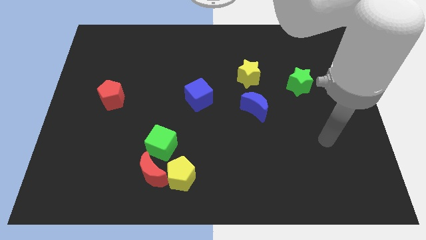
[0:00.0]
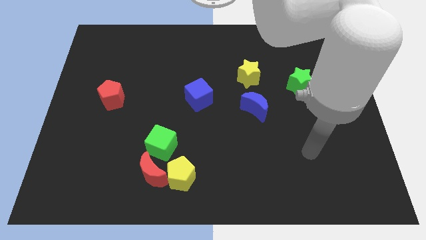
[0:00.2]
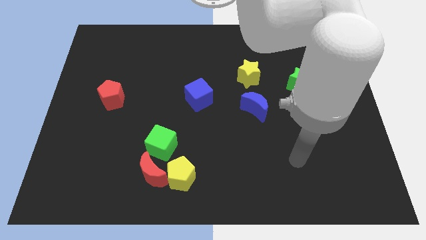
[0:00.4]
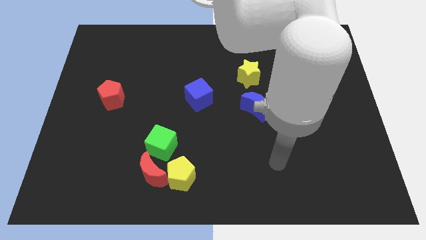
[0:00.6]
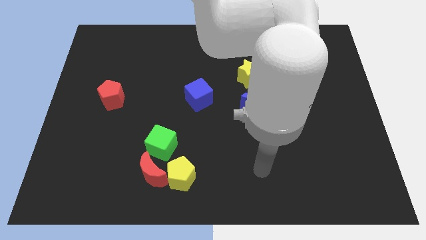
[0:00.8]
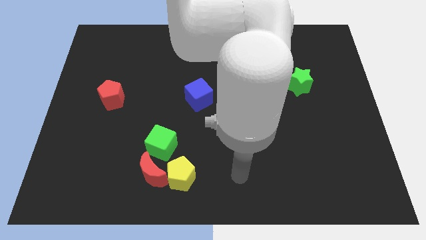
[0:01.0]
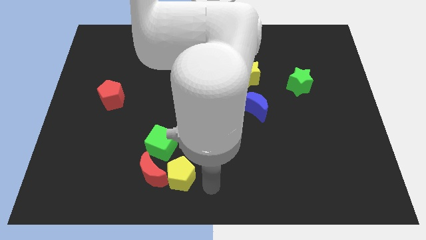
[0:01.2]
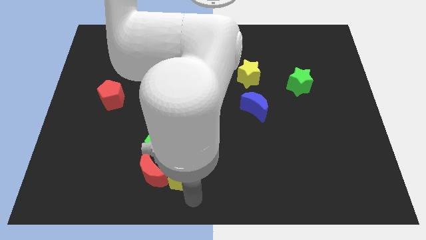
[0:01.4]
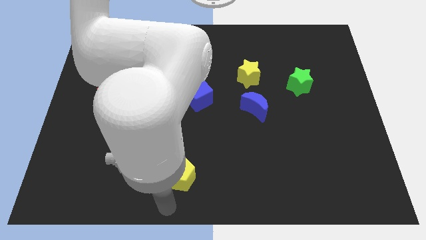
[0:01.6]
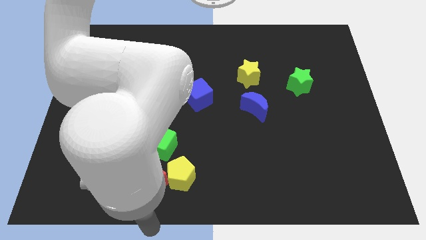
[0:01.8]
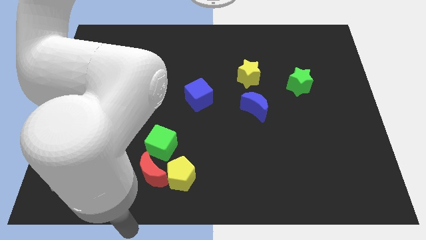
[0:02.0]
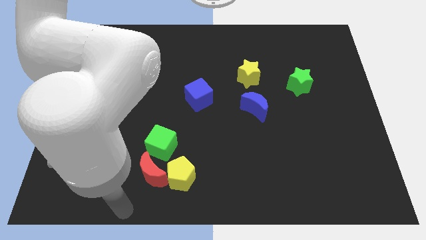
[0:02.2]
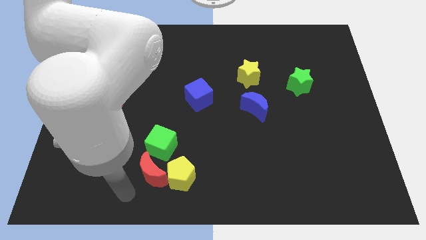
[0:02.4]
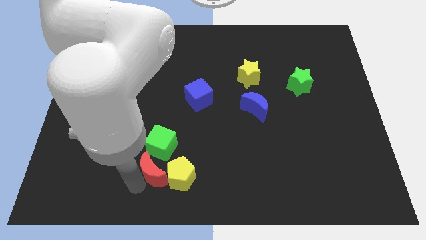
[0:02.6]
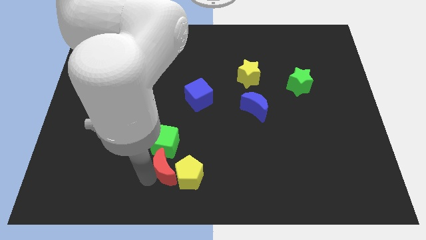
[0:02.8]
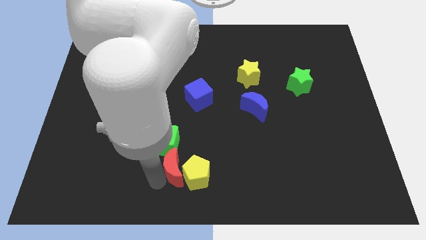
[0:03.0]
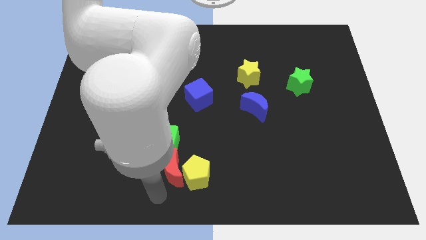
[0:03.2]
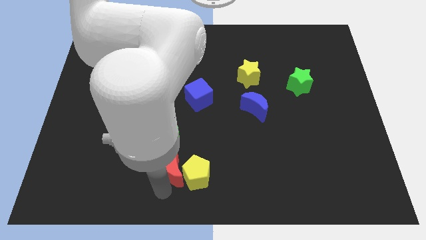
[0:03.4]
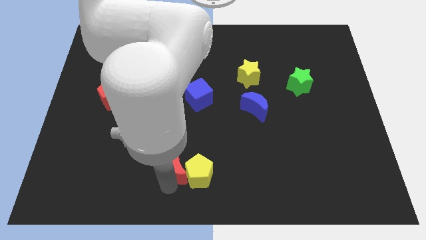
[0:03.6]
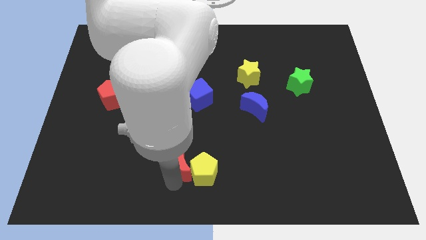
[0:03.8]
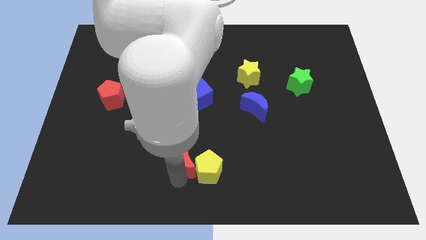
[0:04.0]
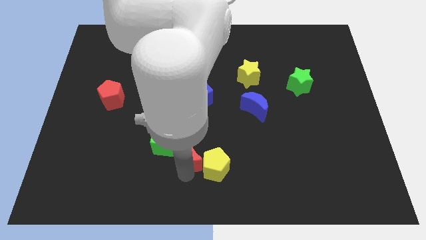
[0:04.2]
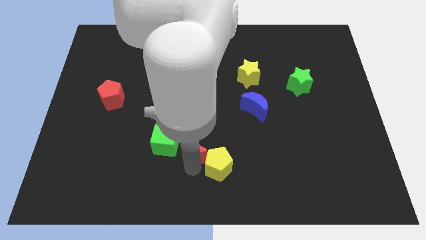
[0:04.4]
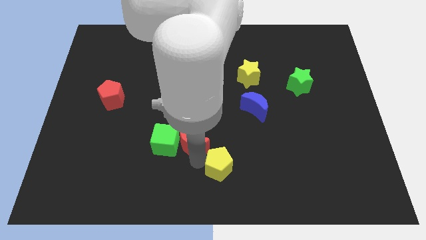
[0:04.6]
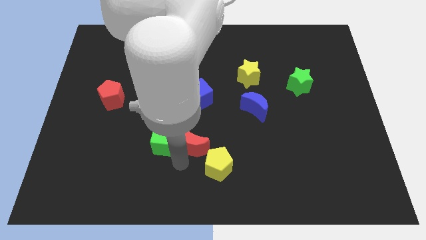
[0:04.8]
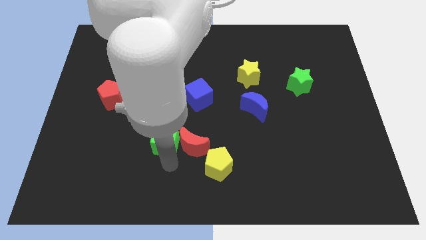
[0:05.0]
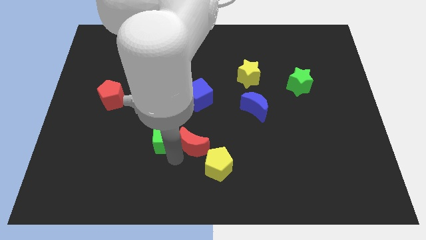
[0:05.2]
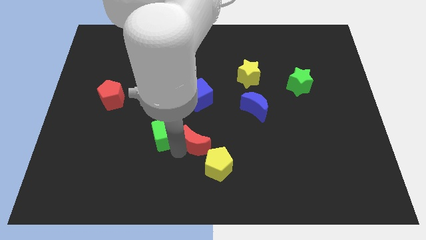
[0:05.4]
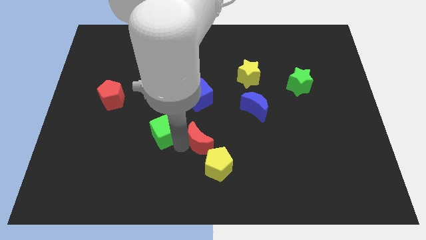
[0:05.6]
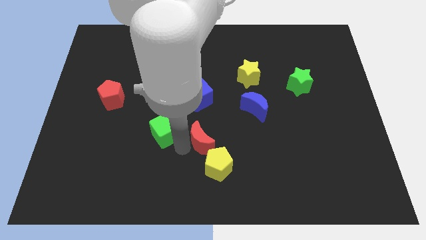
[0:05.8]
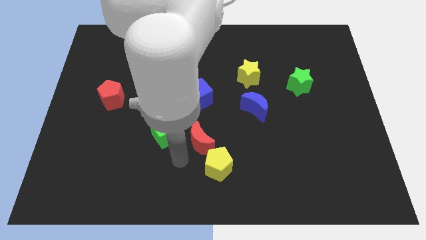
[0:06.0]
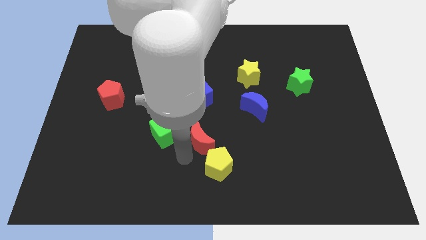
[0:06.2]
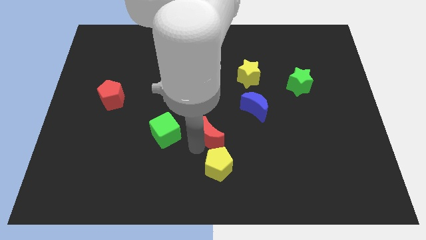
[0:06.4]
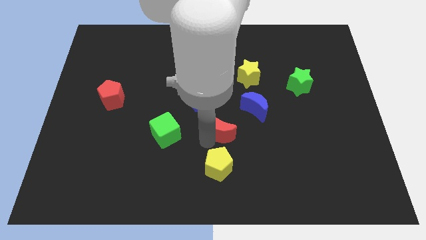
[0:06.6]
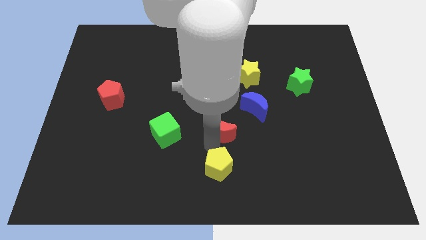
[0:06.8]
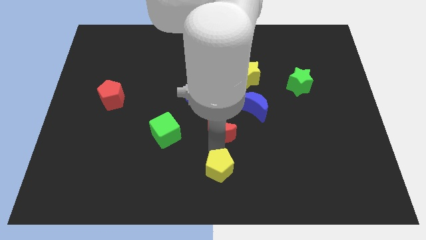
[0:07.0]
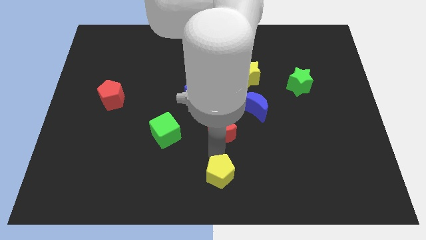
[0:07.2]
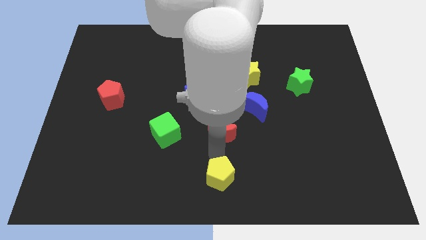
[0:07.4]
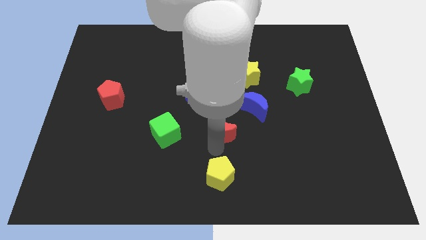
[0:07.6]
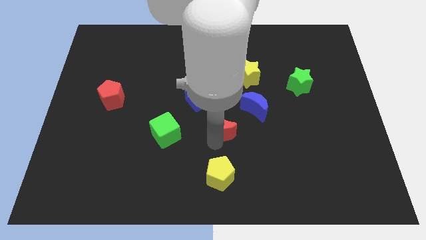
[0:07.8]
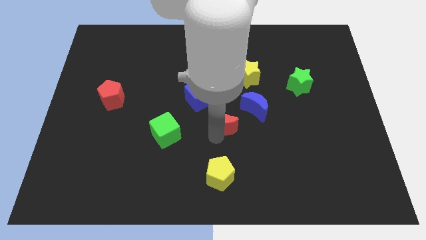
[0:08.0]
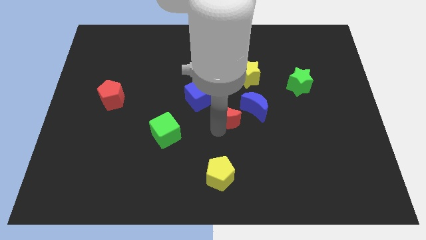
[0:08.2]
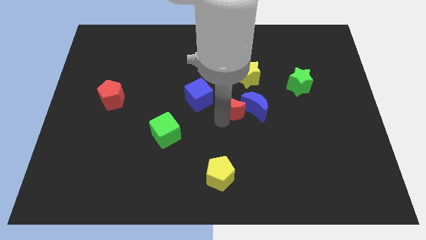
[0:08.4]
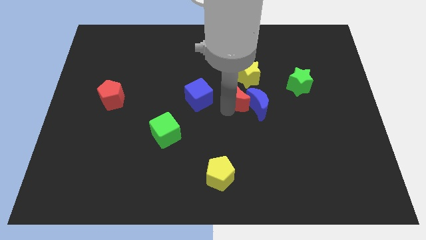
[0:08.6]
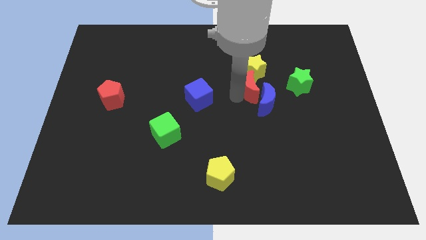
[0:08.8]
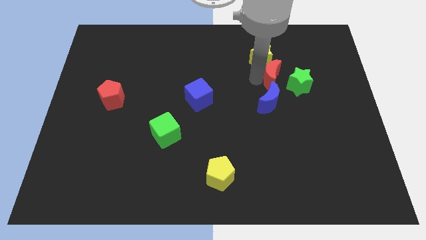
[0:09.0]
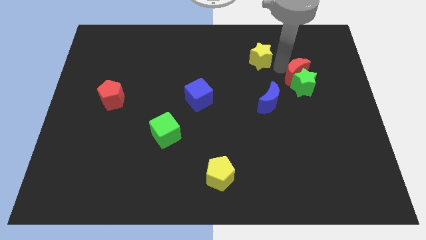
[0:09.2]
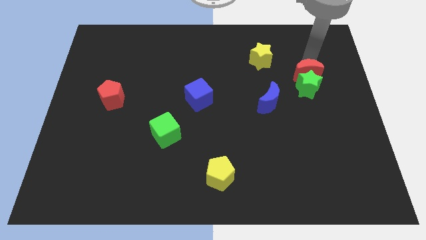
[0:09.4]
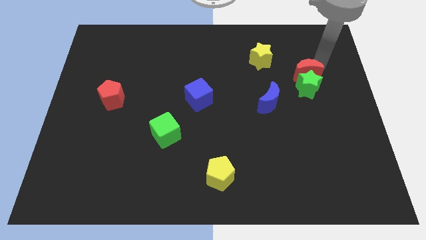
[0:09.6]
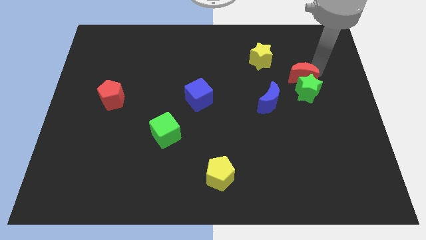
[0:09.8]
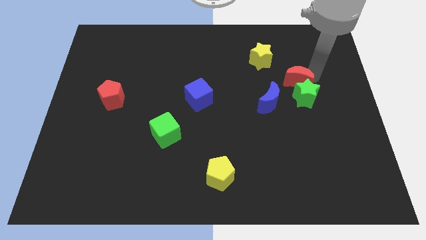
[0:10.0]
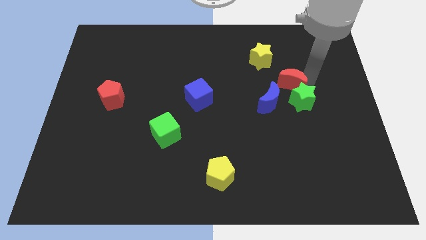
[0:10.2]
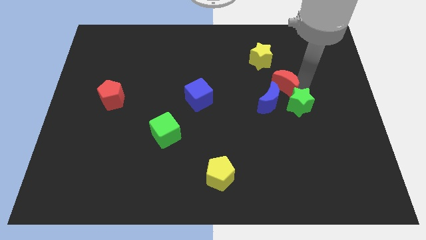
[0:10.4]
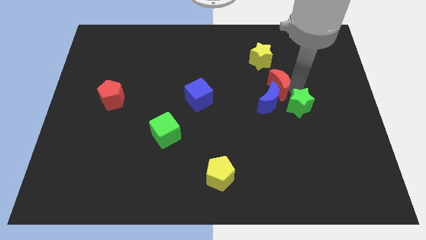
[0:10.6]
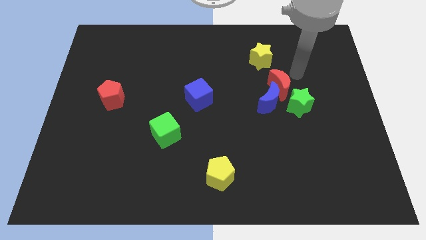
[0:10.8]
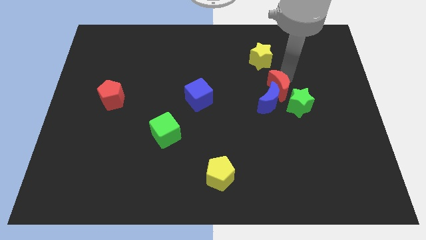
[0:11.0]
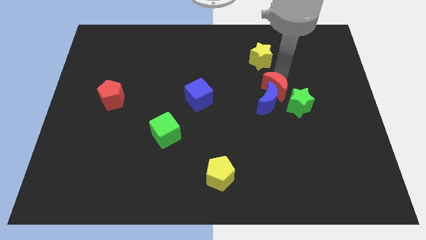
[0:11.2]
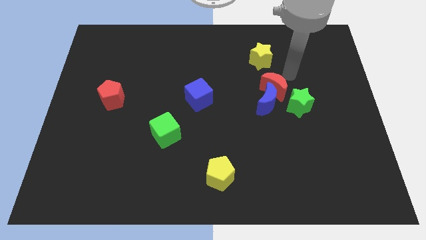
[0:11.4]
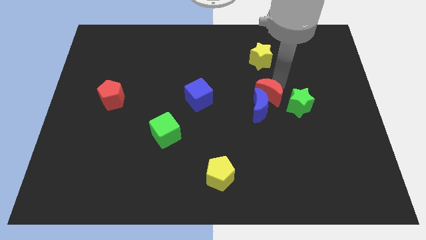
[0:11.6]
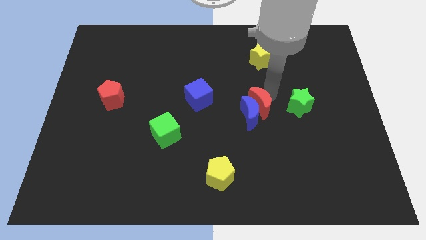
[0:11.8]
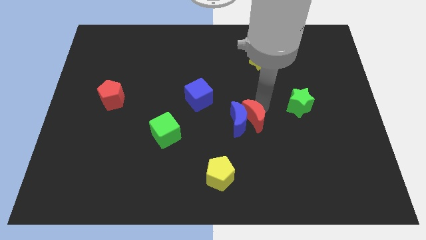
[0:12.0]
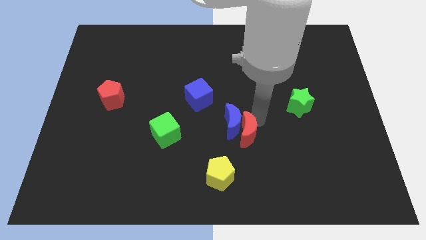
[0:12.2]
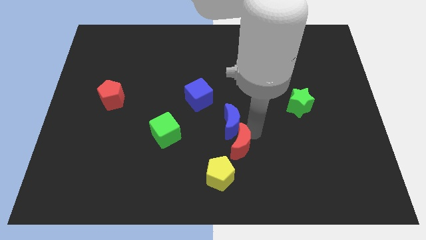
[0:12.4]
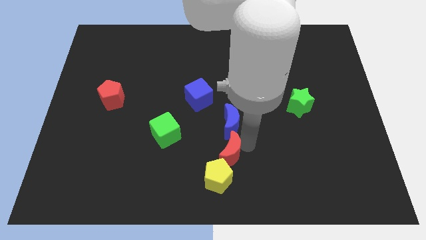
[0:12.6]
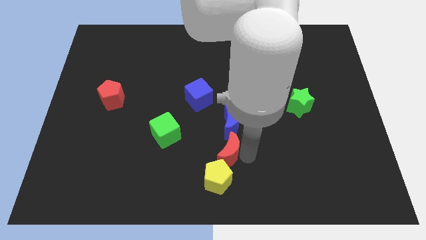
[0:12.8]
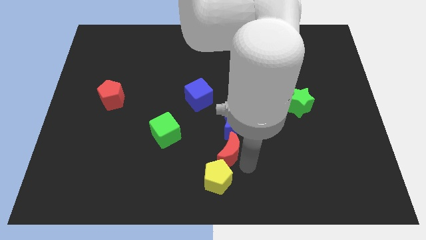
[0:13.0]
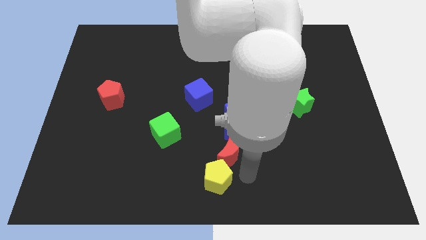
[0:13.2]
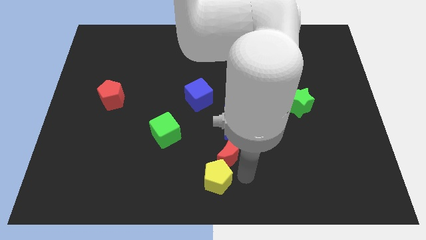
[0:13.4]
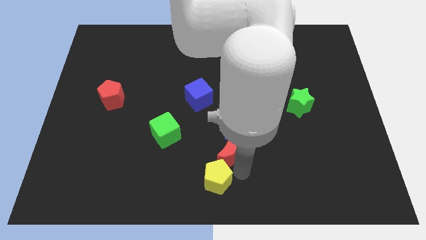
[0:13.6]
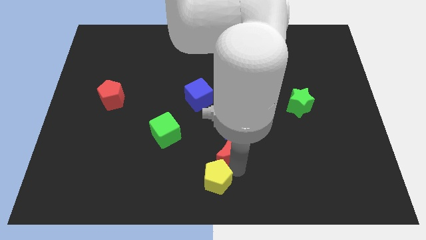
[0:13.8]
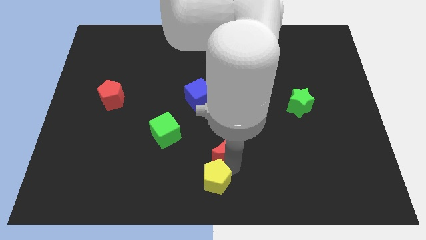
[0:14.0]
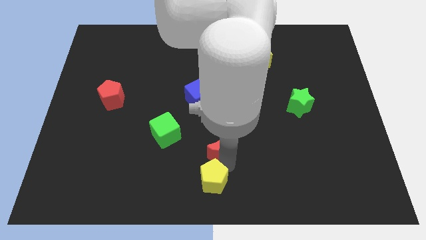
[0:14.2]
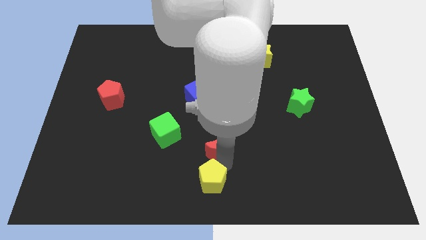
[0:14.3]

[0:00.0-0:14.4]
move the red moon to the top of the yellow pentagon

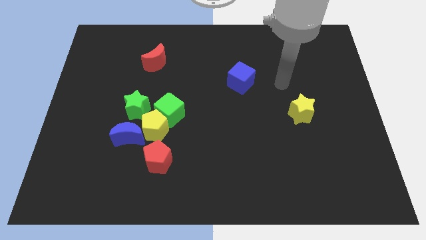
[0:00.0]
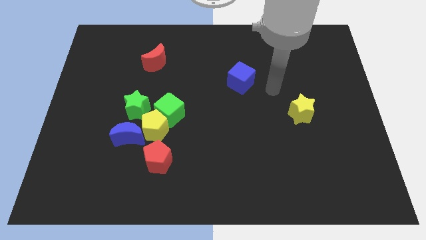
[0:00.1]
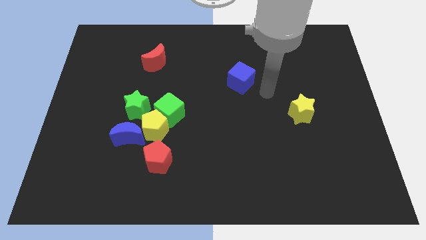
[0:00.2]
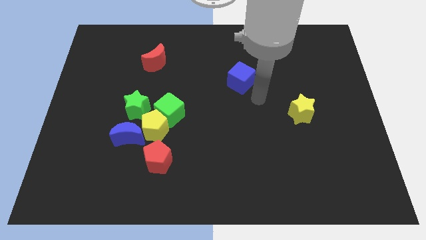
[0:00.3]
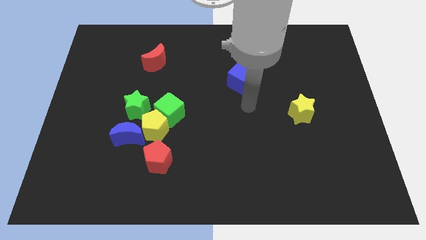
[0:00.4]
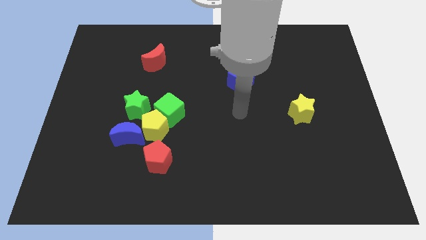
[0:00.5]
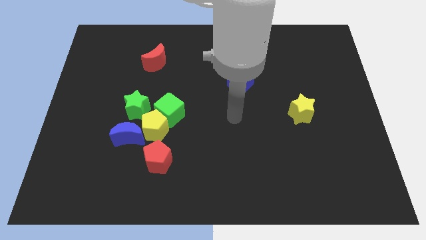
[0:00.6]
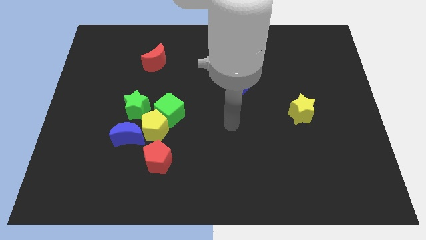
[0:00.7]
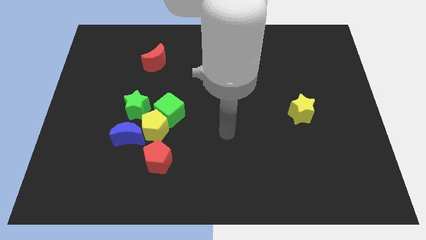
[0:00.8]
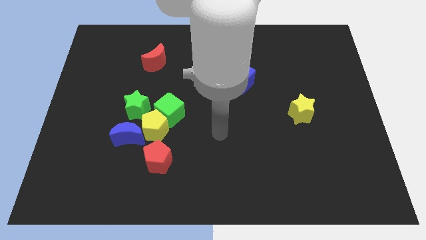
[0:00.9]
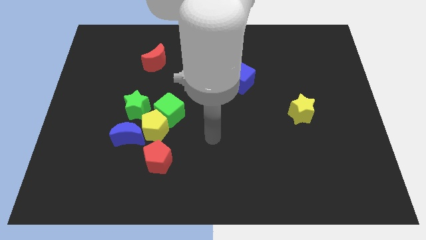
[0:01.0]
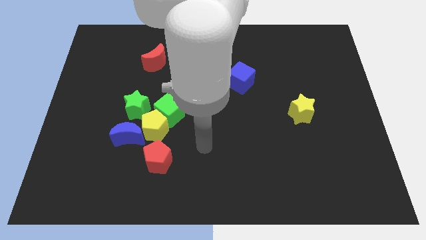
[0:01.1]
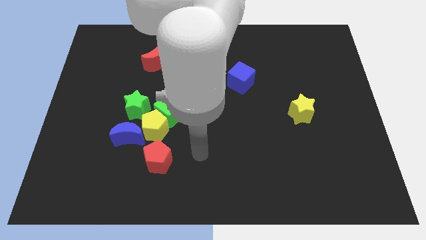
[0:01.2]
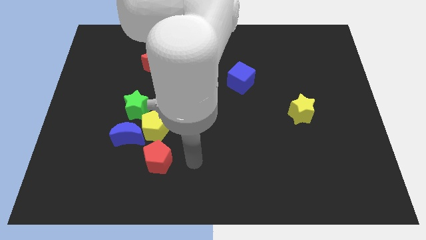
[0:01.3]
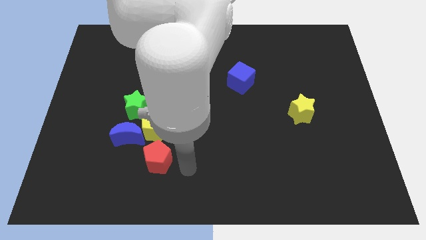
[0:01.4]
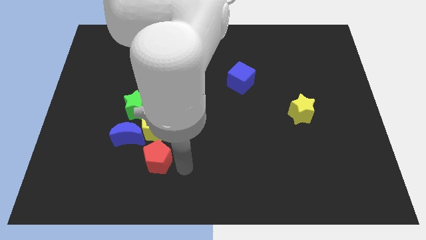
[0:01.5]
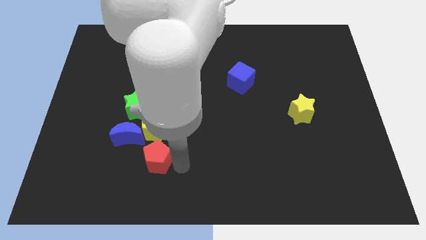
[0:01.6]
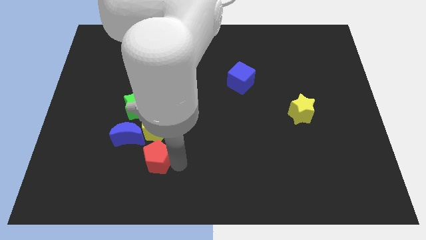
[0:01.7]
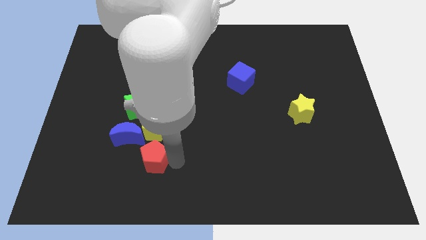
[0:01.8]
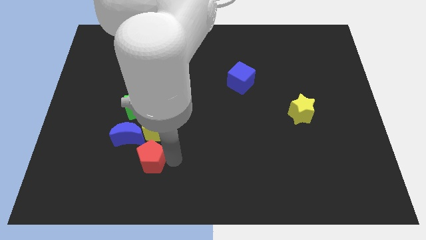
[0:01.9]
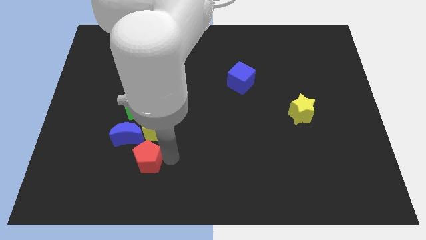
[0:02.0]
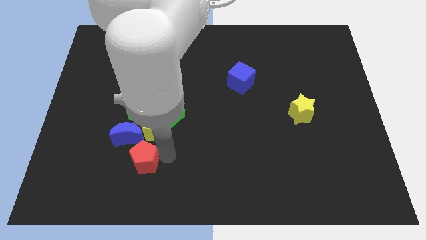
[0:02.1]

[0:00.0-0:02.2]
move the red pentagon to the bottom left of the yellow pentagon
